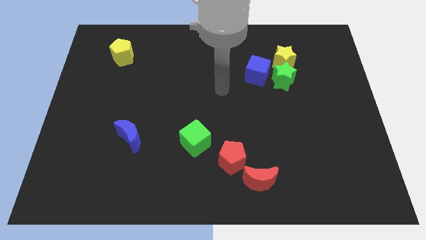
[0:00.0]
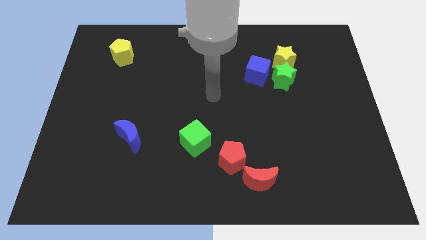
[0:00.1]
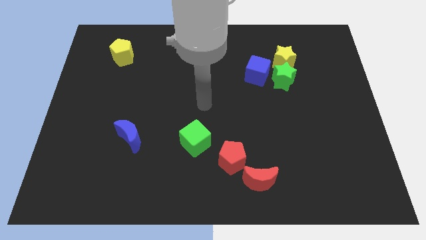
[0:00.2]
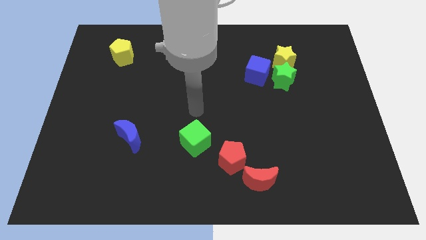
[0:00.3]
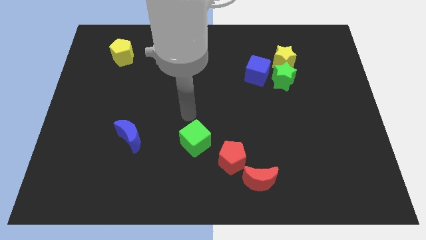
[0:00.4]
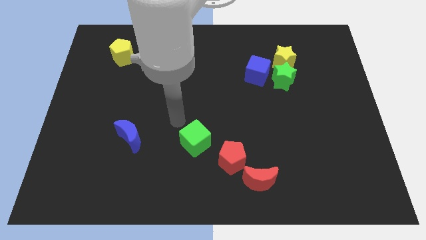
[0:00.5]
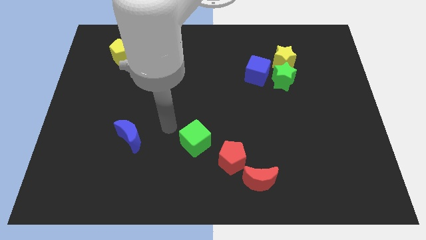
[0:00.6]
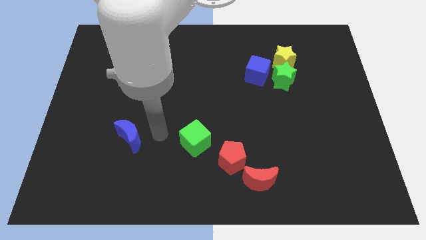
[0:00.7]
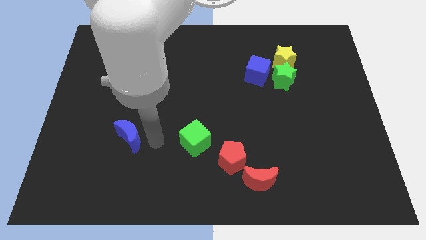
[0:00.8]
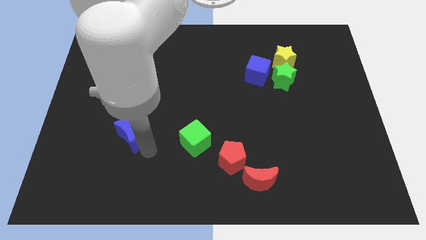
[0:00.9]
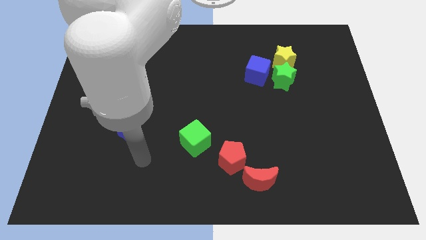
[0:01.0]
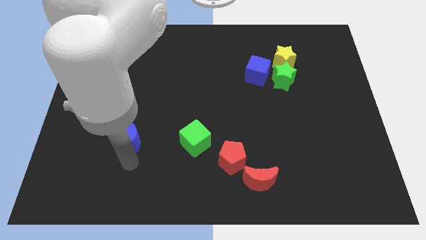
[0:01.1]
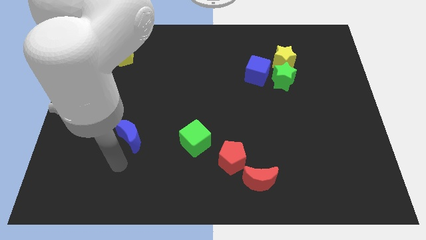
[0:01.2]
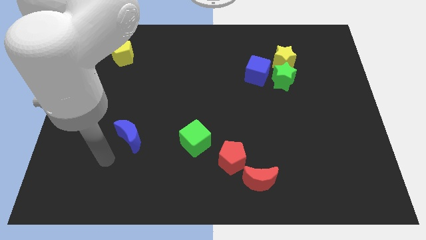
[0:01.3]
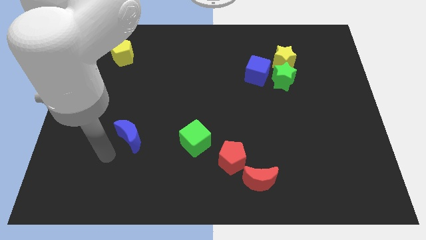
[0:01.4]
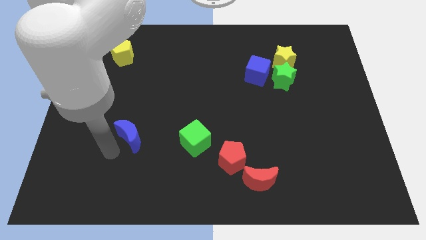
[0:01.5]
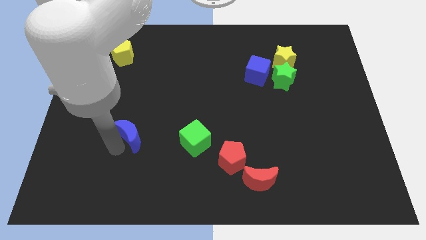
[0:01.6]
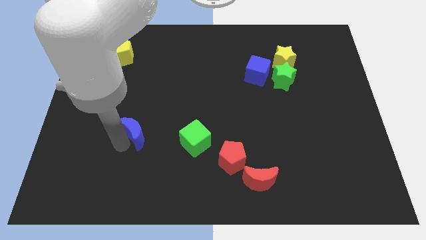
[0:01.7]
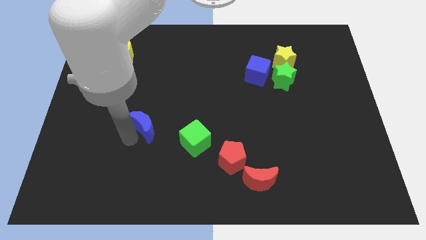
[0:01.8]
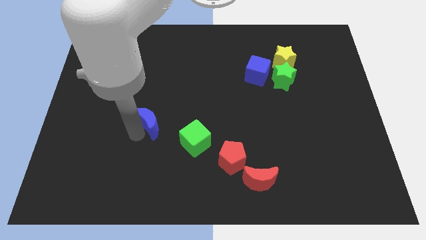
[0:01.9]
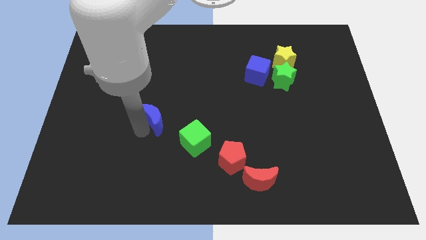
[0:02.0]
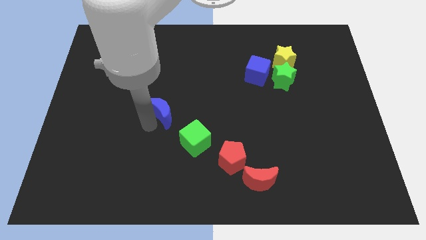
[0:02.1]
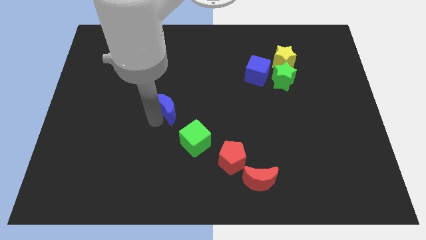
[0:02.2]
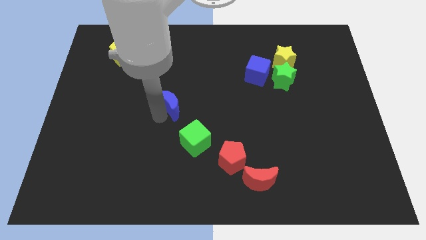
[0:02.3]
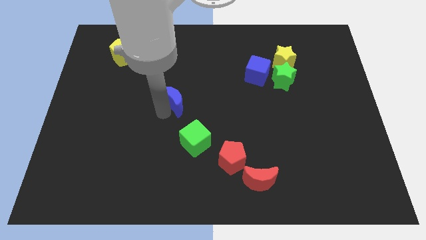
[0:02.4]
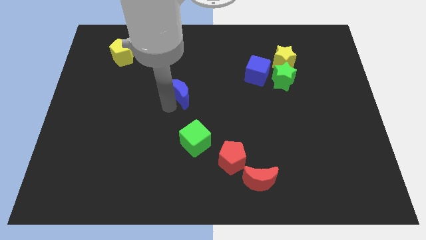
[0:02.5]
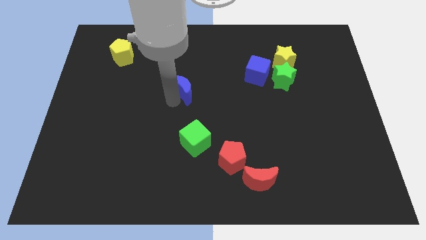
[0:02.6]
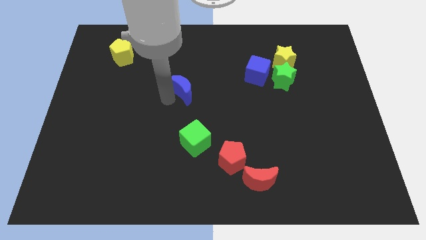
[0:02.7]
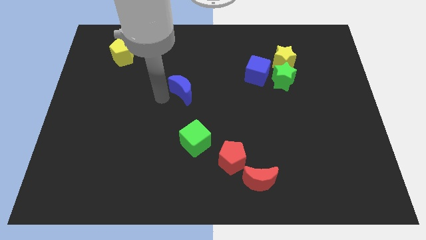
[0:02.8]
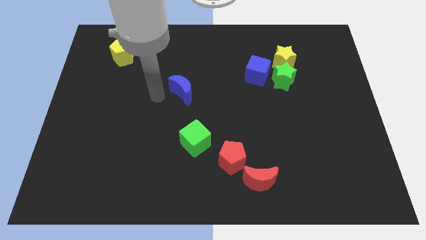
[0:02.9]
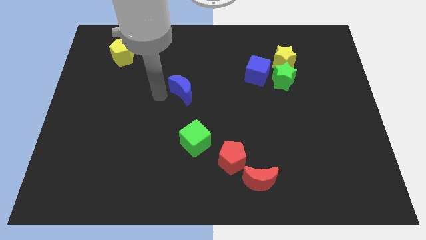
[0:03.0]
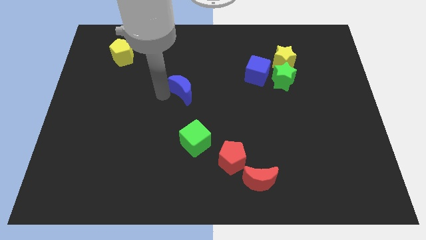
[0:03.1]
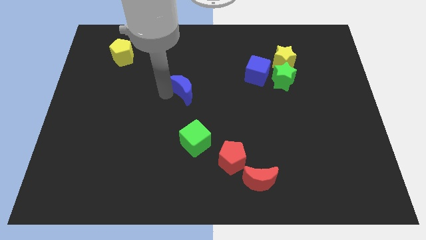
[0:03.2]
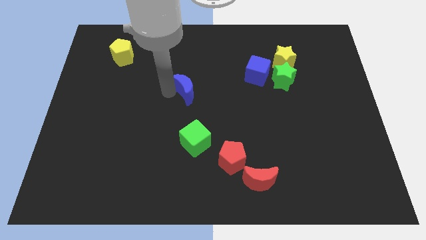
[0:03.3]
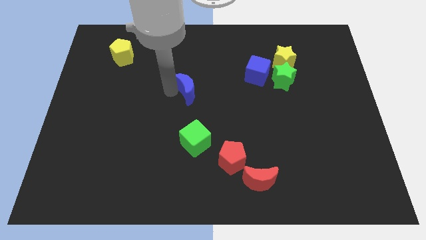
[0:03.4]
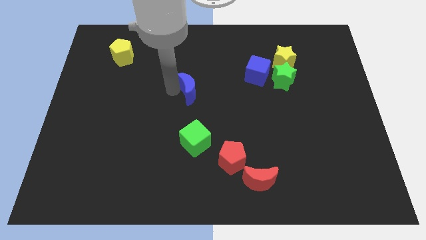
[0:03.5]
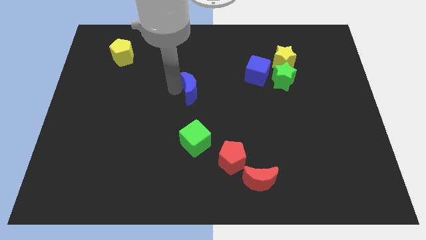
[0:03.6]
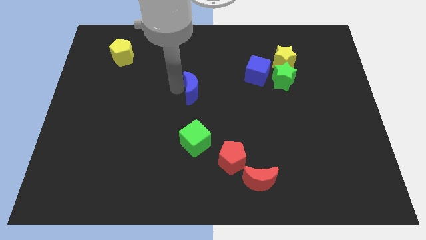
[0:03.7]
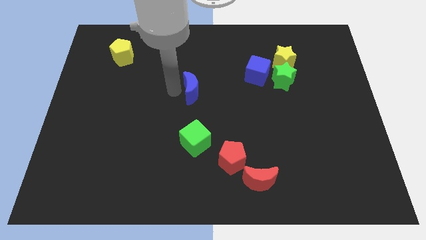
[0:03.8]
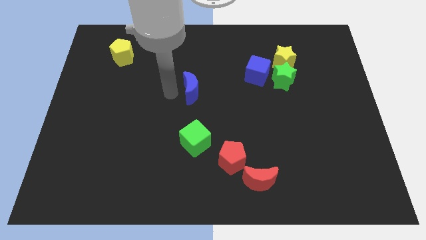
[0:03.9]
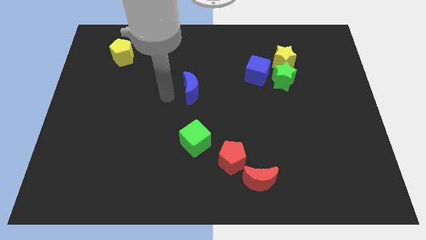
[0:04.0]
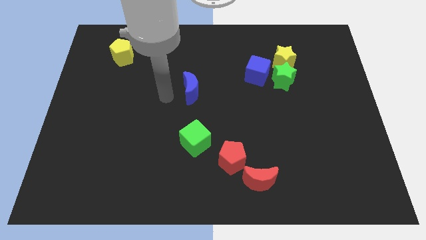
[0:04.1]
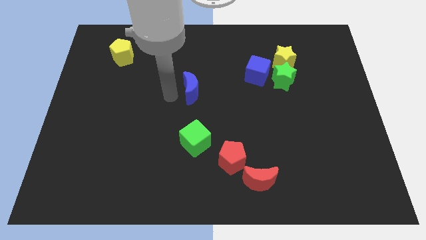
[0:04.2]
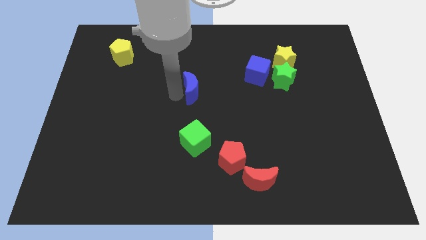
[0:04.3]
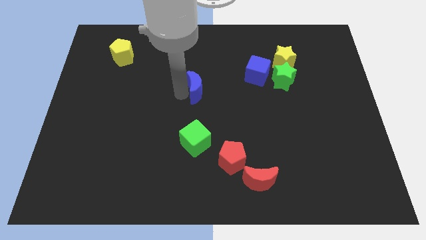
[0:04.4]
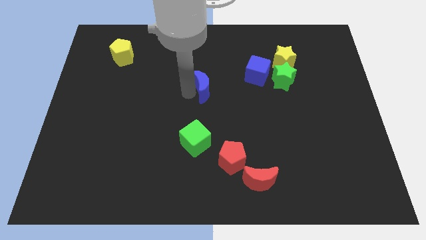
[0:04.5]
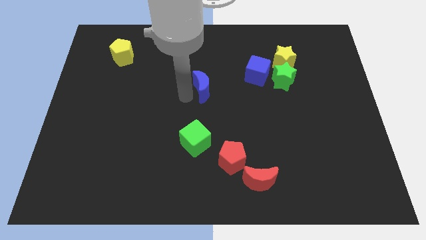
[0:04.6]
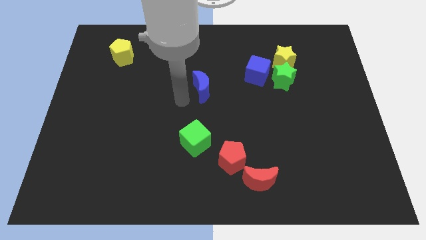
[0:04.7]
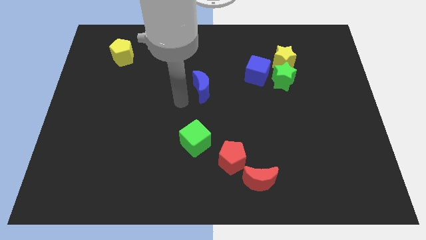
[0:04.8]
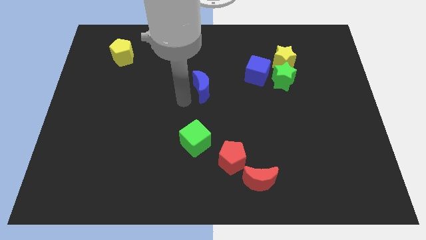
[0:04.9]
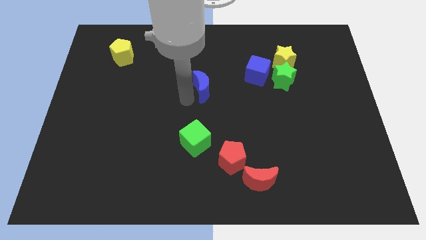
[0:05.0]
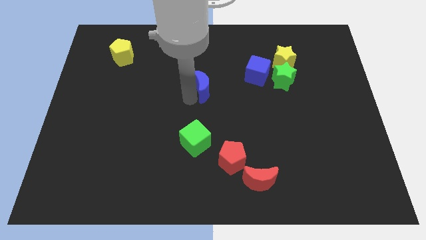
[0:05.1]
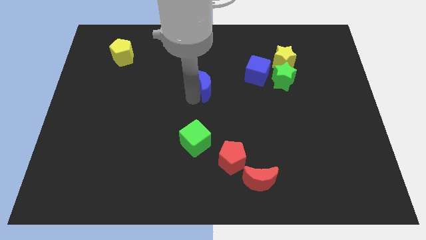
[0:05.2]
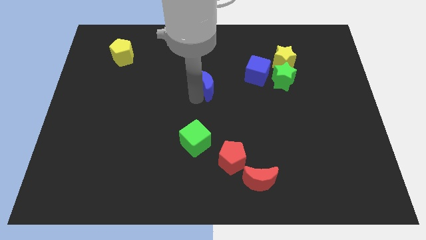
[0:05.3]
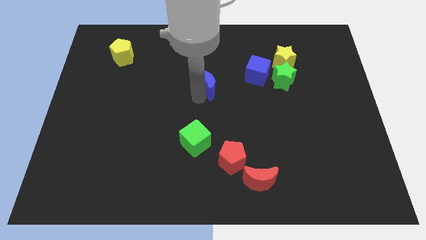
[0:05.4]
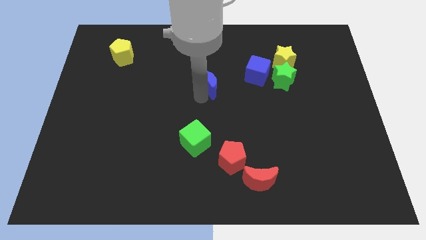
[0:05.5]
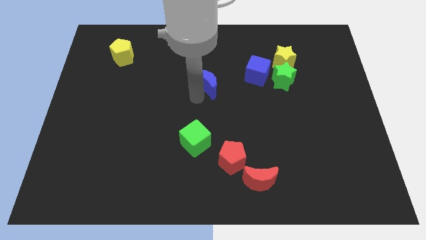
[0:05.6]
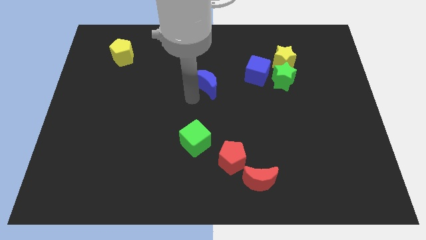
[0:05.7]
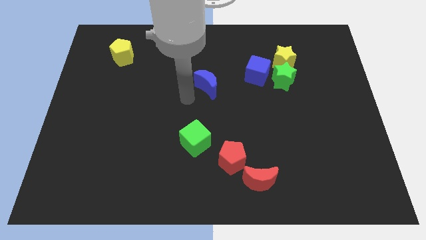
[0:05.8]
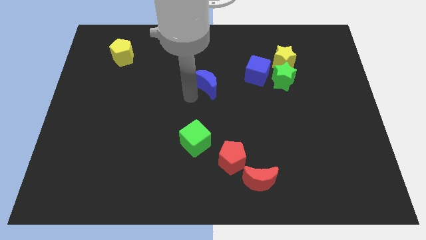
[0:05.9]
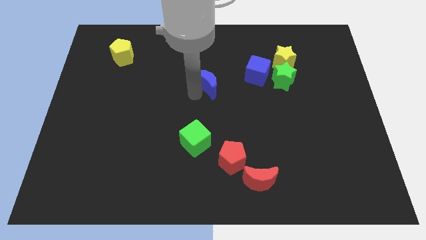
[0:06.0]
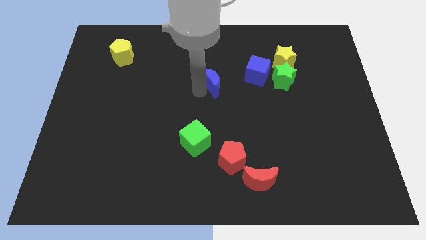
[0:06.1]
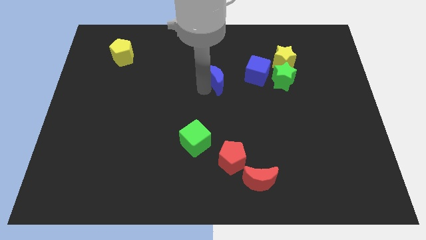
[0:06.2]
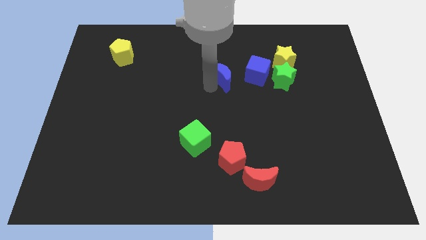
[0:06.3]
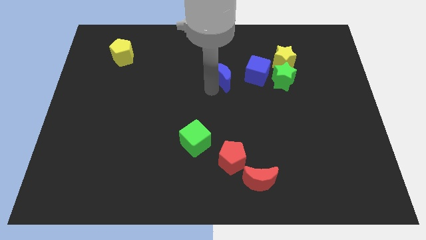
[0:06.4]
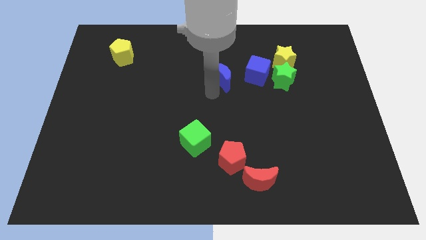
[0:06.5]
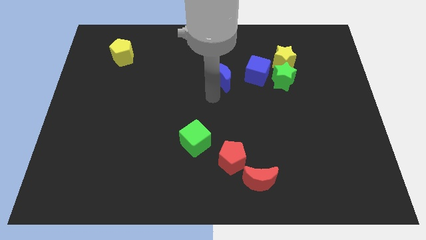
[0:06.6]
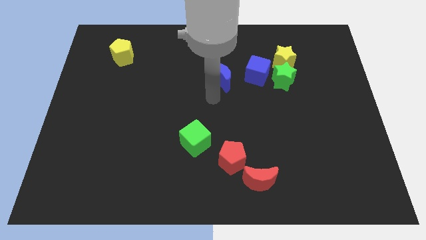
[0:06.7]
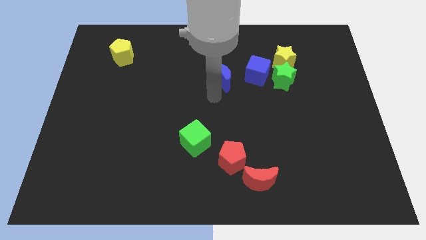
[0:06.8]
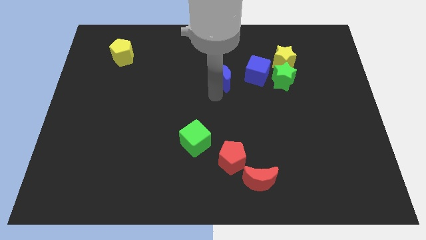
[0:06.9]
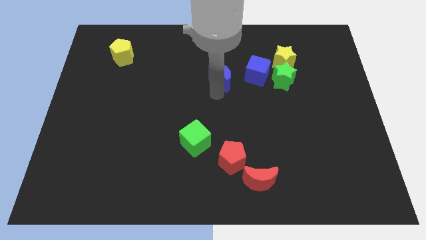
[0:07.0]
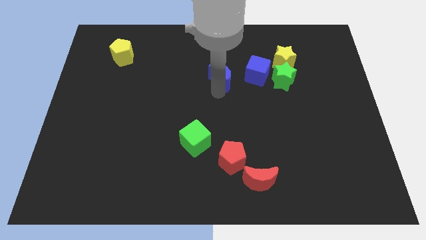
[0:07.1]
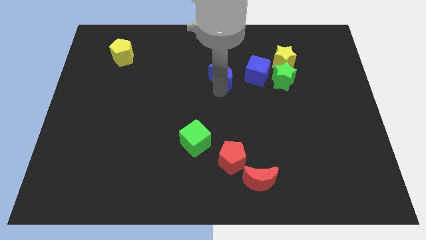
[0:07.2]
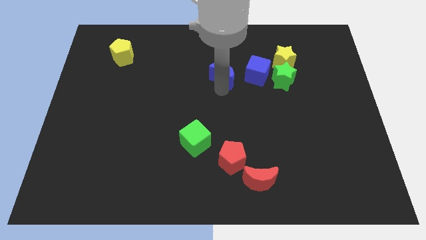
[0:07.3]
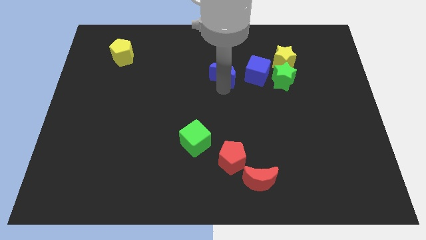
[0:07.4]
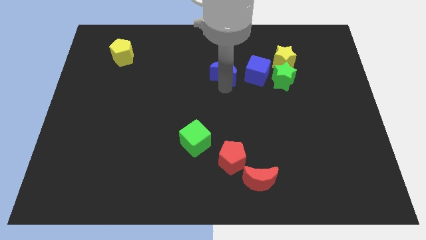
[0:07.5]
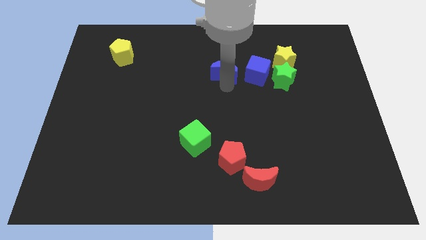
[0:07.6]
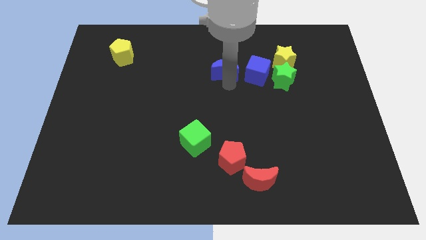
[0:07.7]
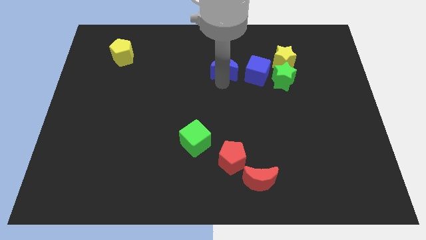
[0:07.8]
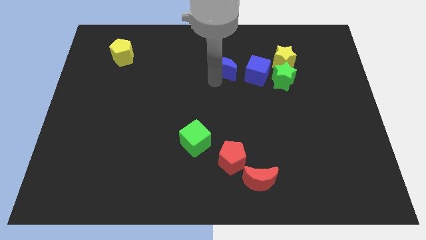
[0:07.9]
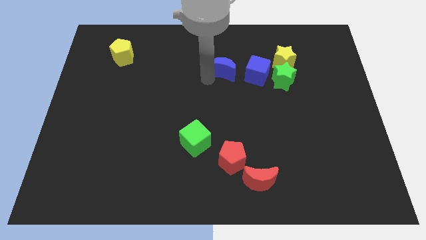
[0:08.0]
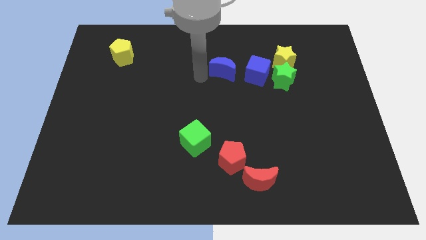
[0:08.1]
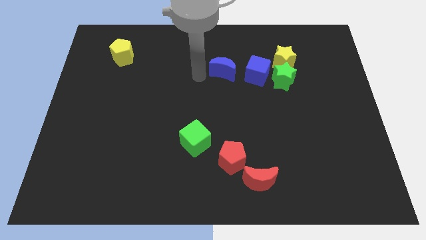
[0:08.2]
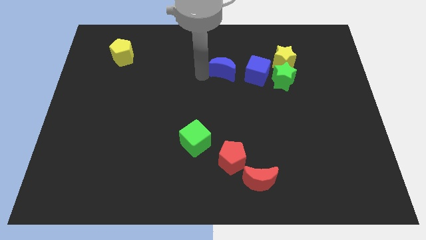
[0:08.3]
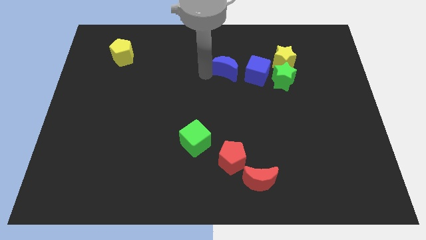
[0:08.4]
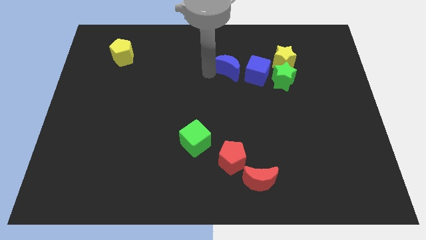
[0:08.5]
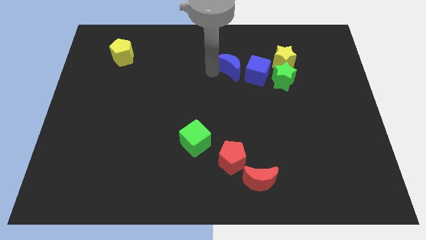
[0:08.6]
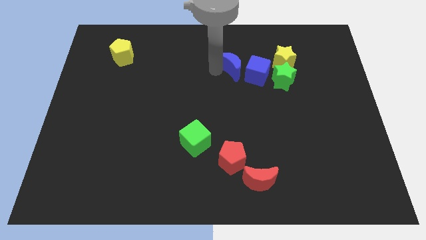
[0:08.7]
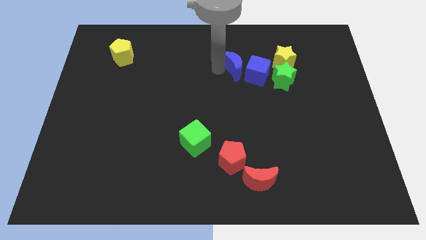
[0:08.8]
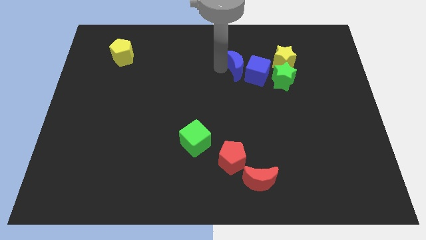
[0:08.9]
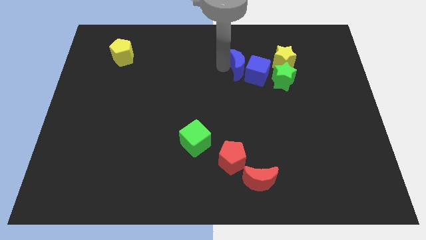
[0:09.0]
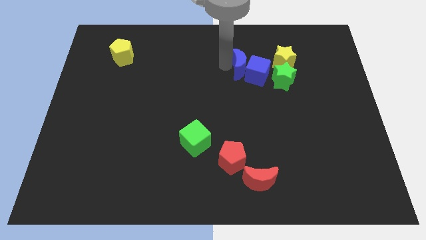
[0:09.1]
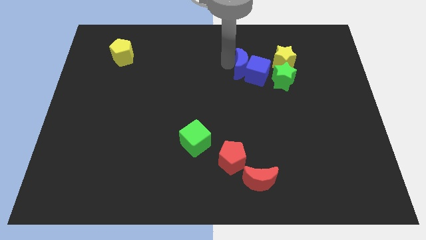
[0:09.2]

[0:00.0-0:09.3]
put the blue moon diagonally up and to the left of the green star
